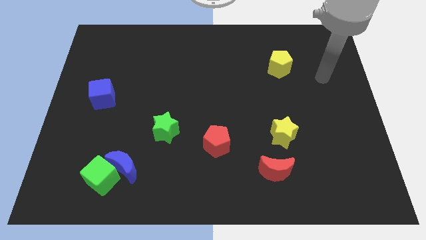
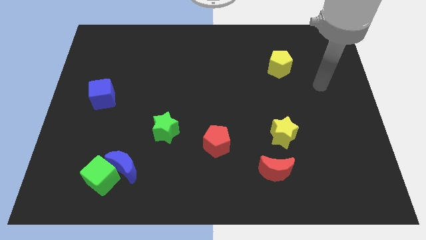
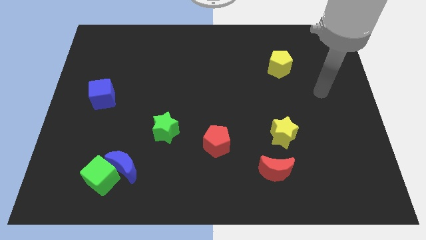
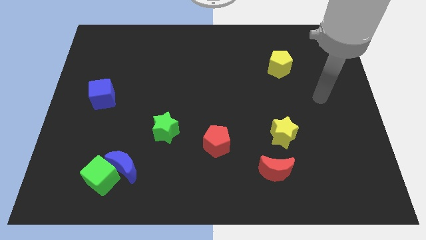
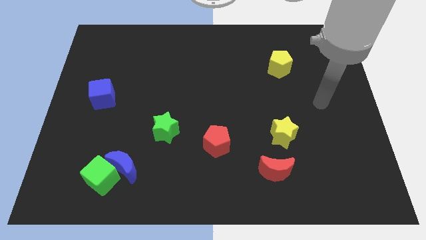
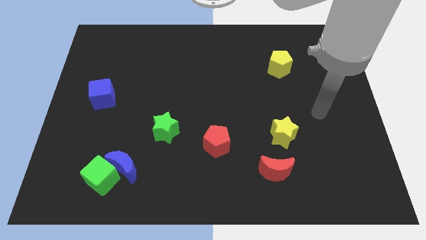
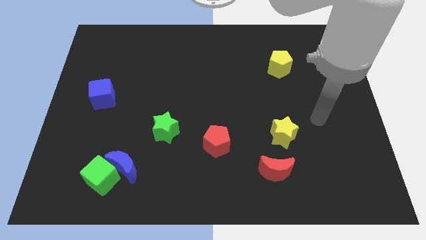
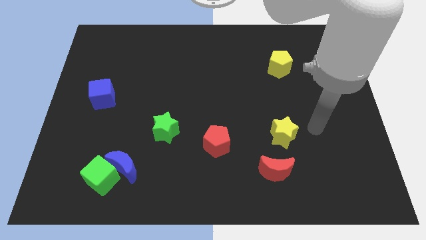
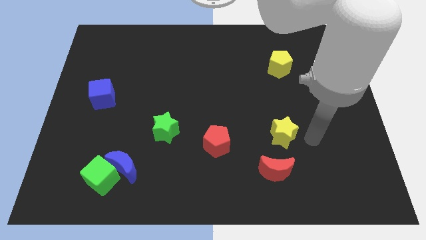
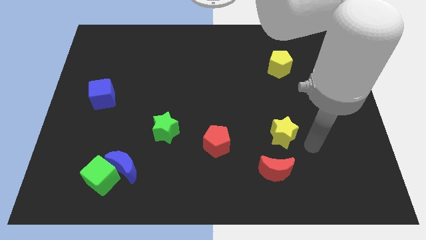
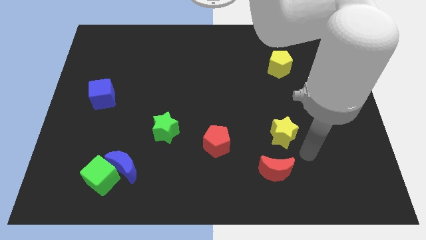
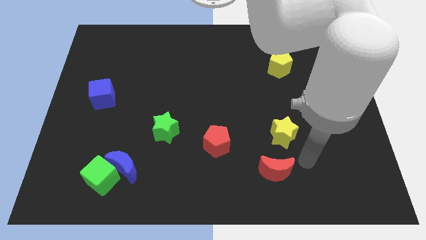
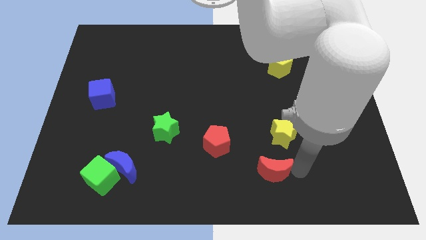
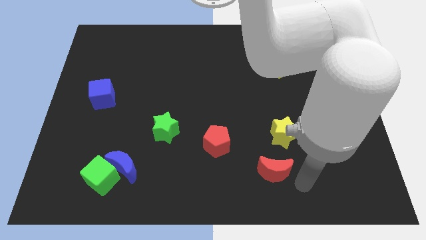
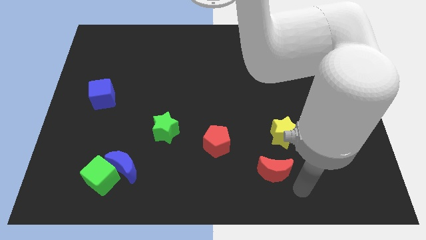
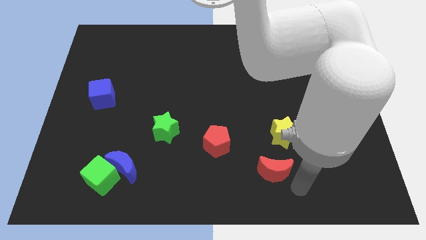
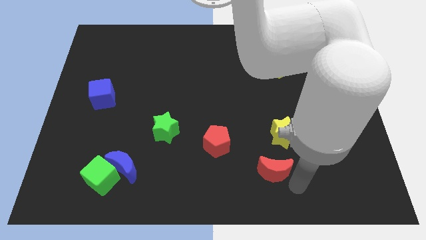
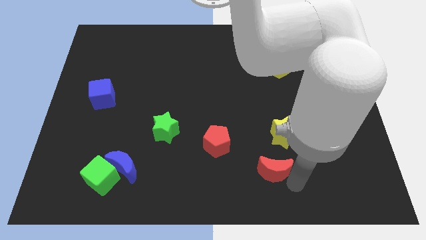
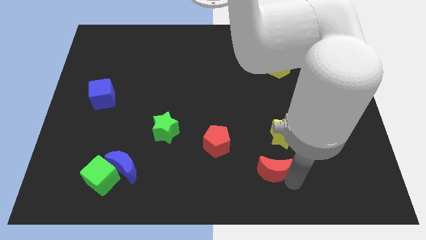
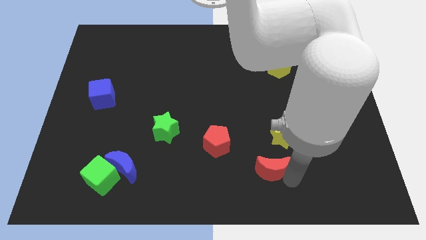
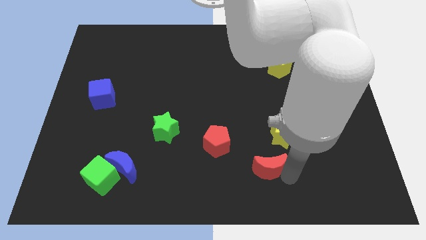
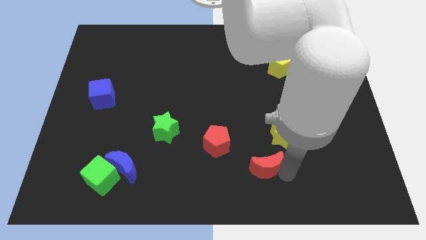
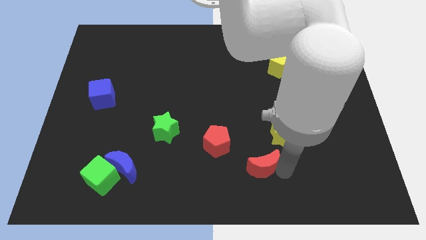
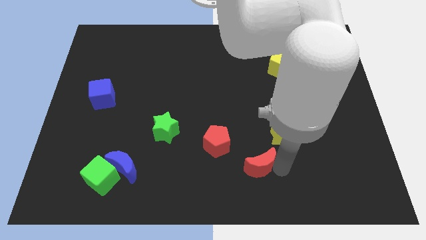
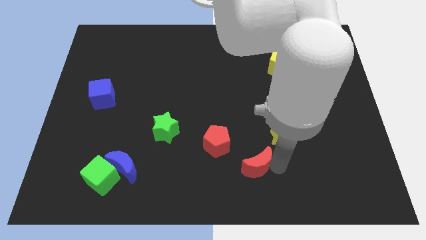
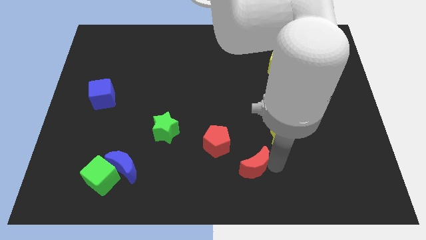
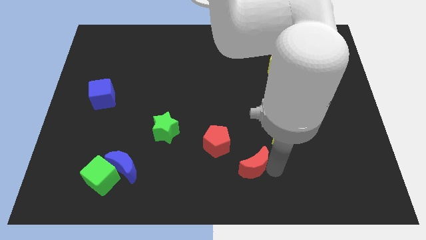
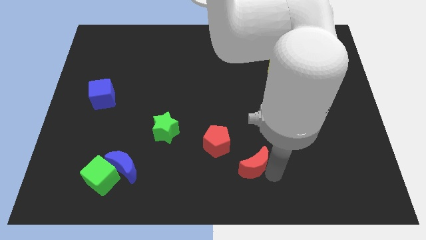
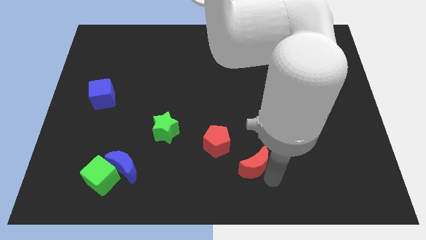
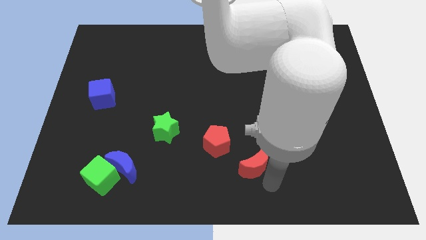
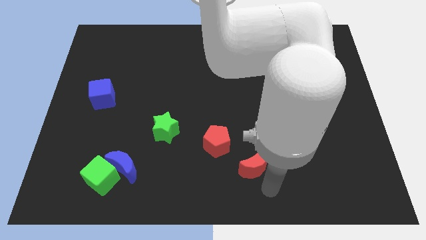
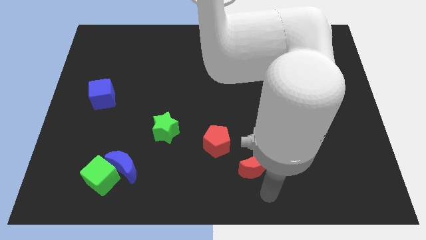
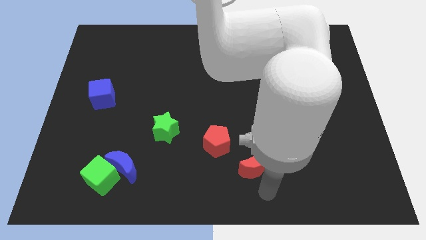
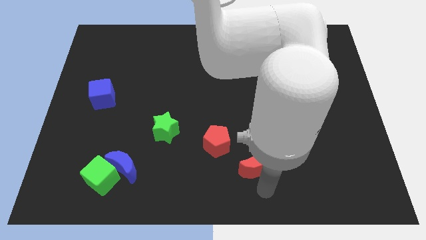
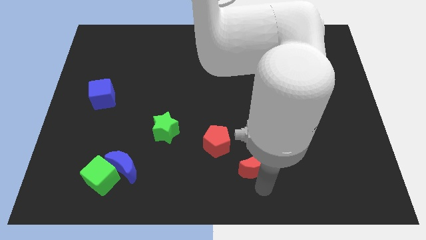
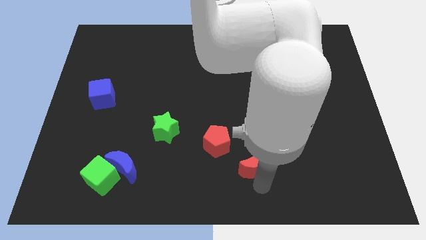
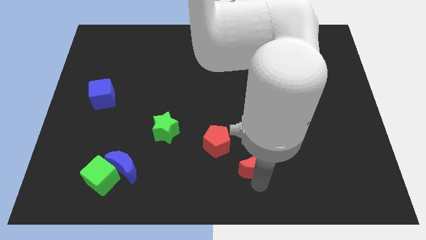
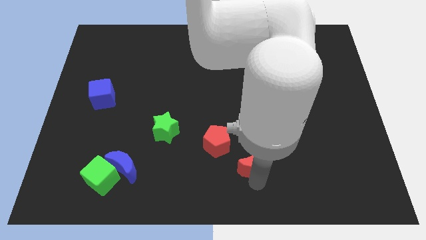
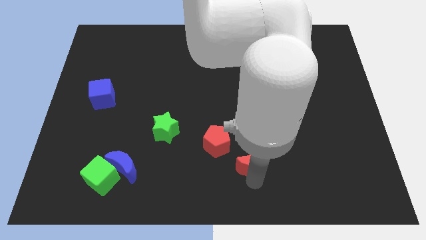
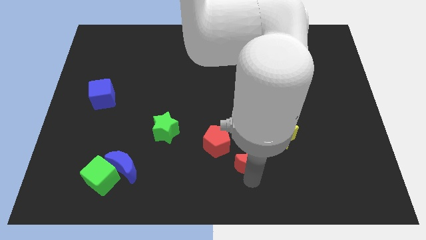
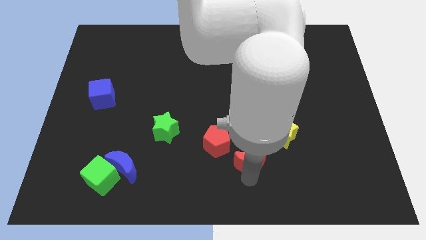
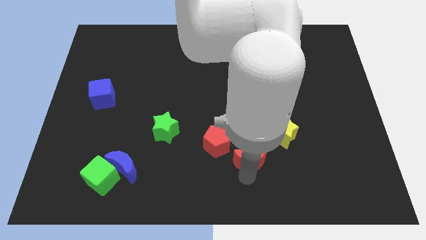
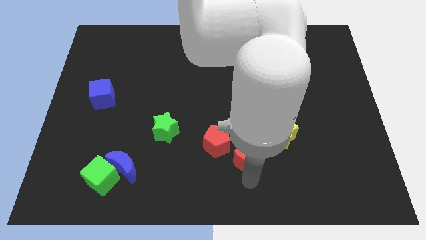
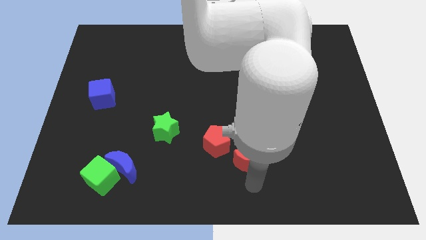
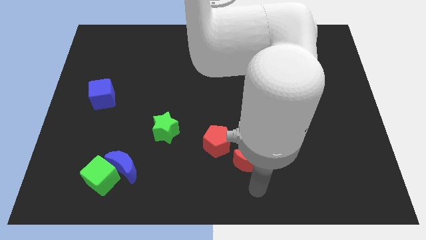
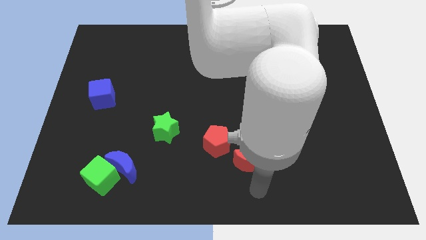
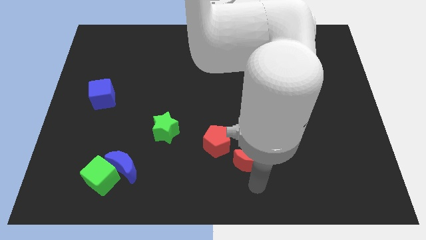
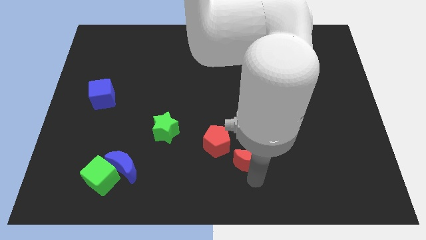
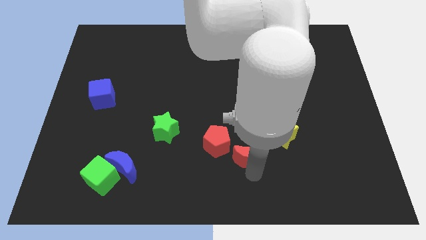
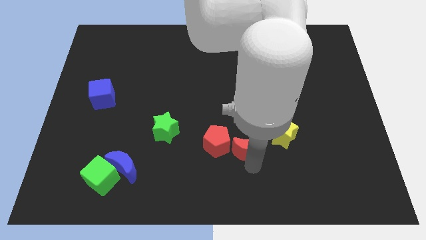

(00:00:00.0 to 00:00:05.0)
move the red moon left of the yellow star

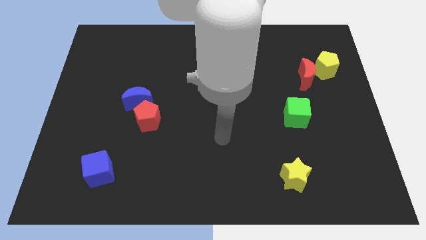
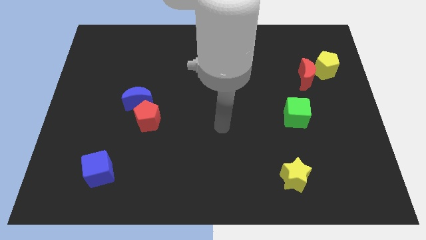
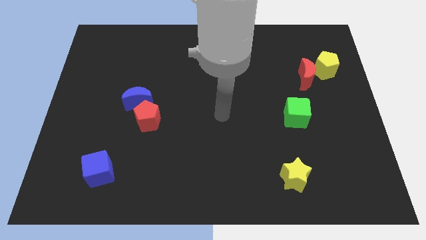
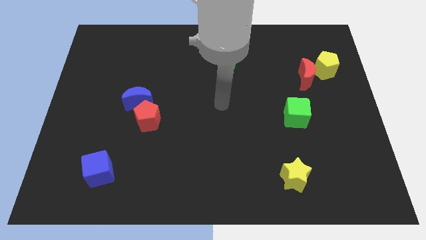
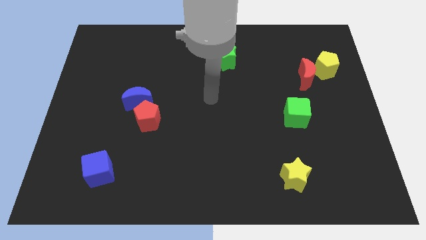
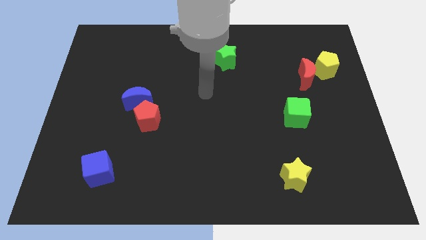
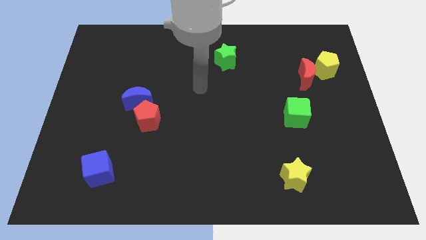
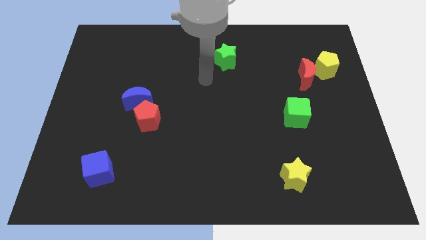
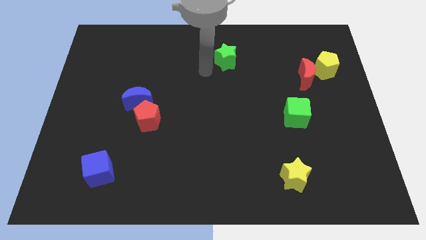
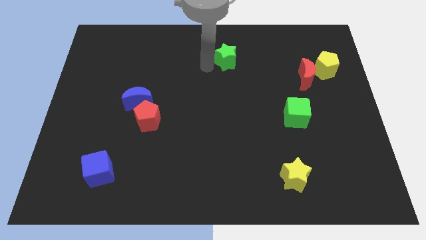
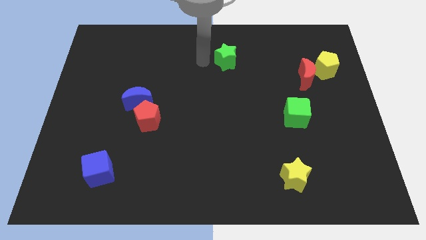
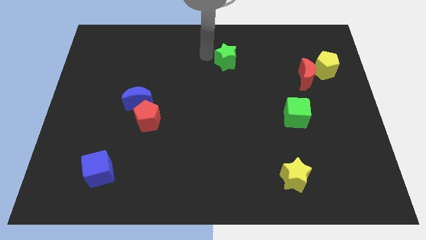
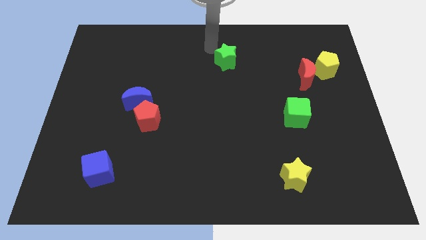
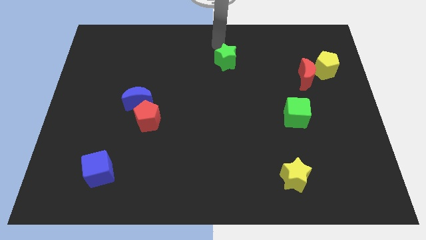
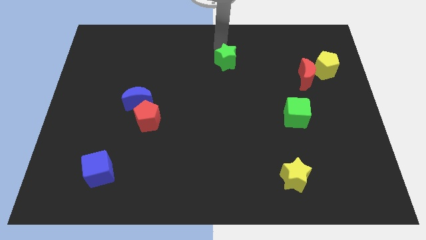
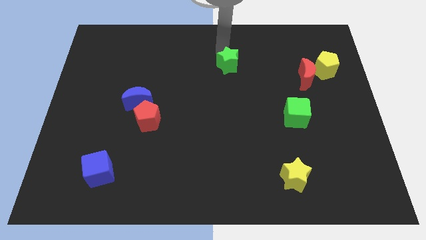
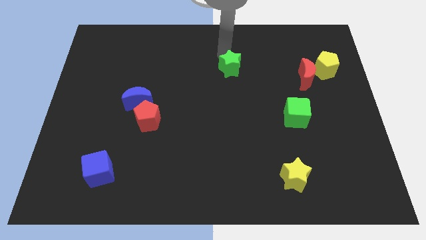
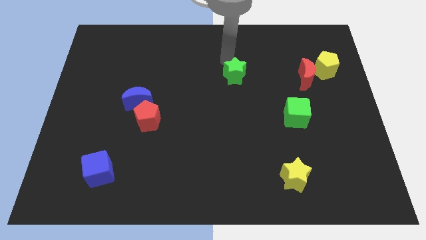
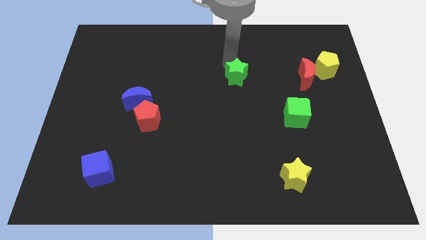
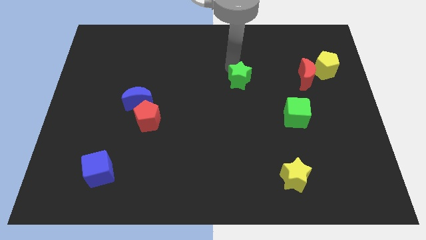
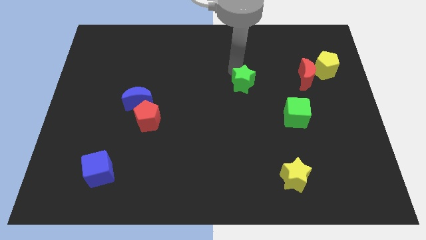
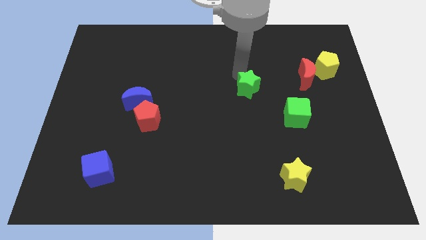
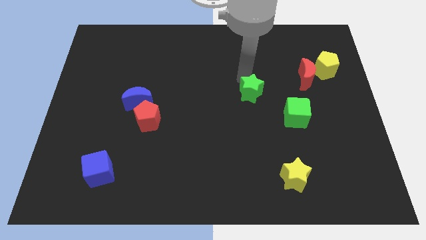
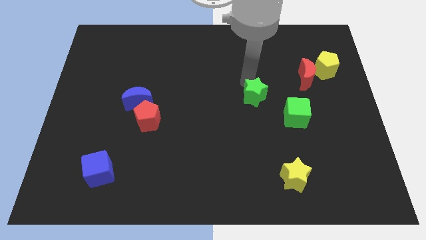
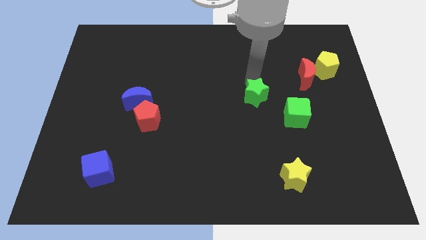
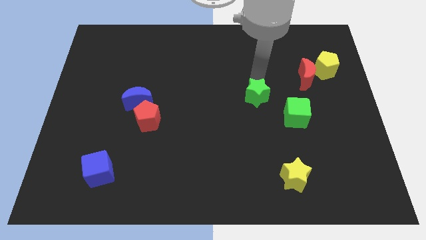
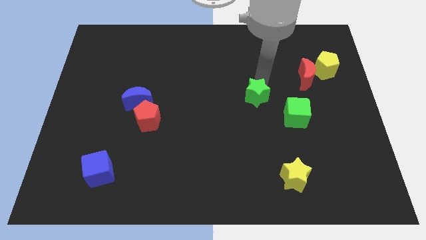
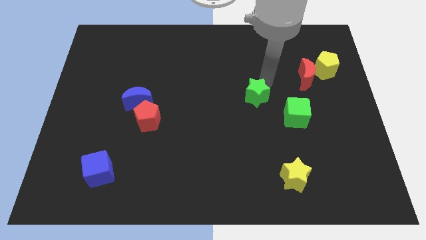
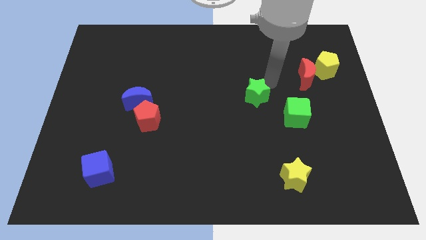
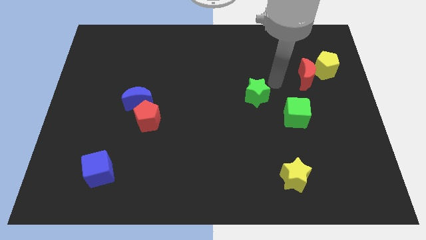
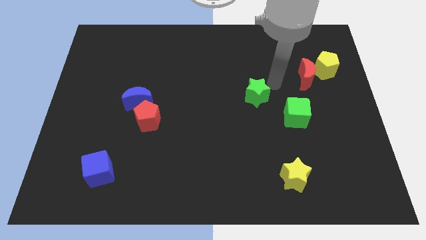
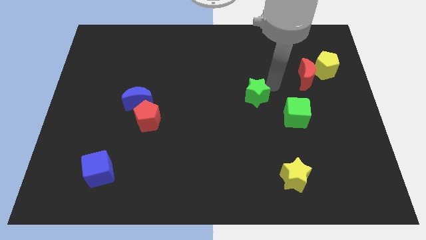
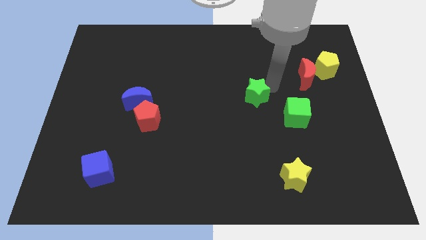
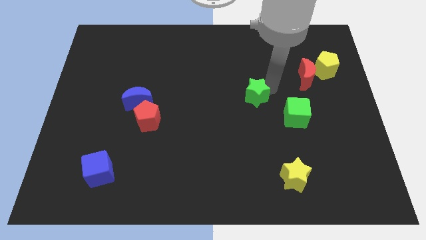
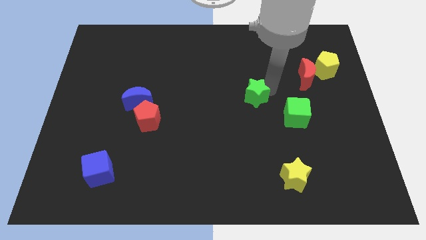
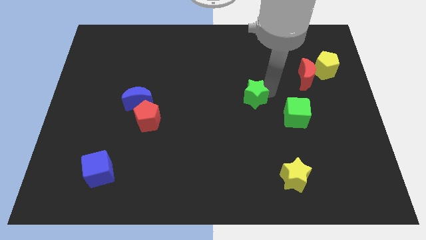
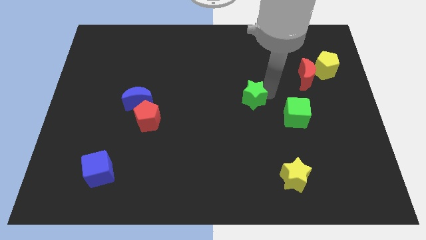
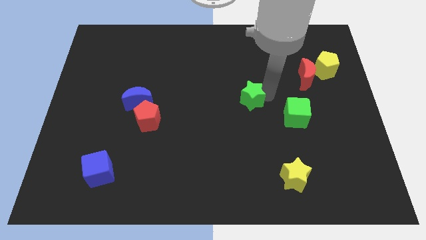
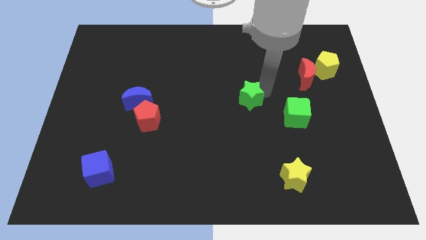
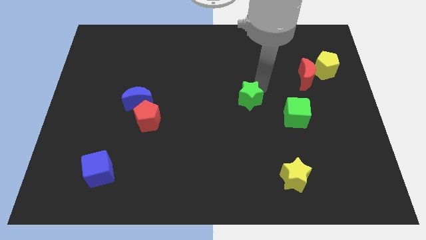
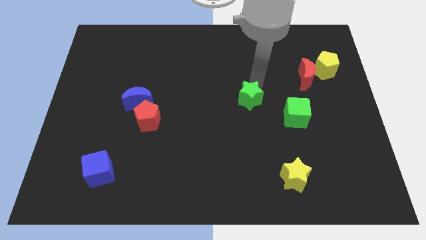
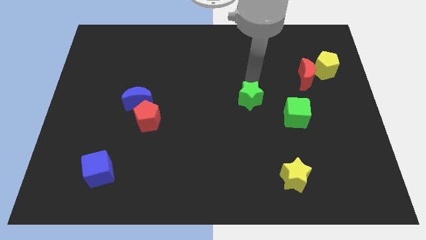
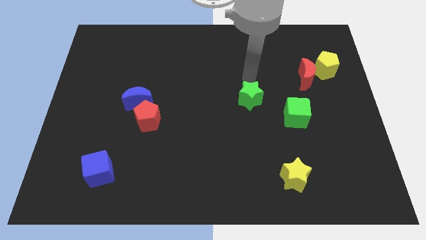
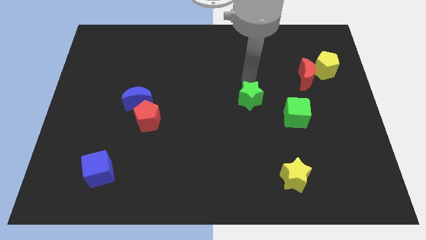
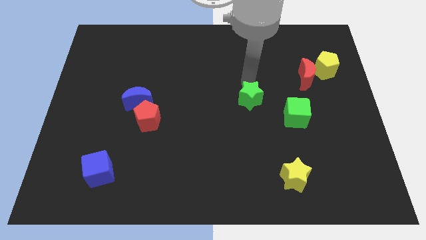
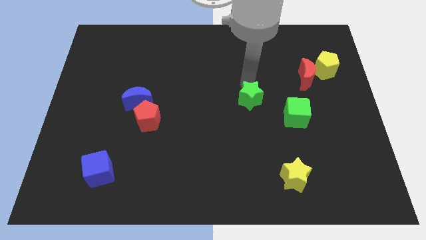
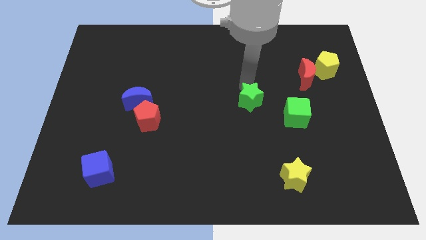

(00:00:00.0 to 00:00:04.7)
move the green star just left of the green cube
